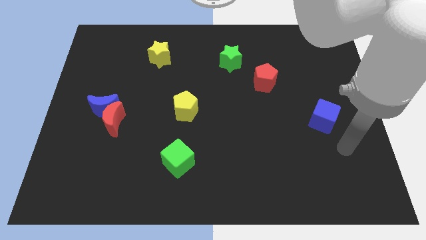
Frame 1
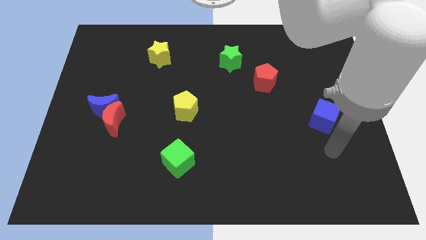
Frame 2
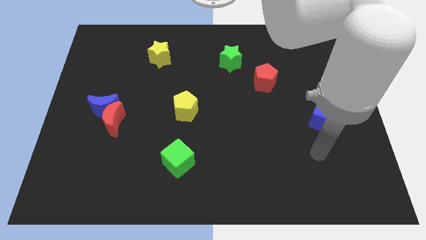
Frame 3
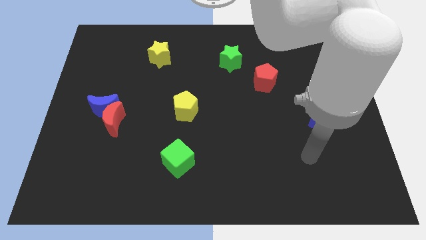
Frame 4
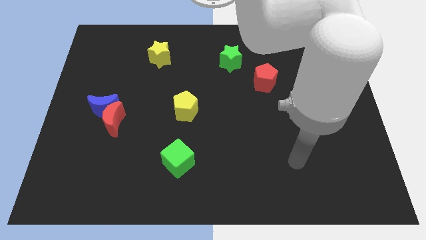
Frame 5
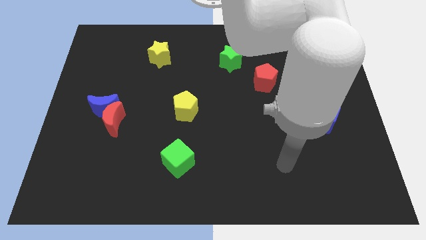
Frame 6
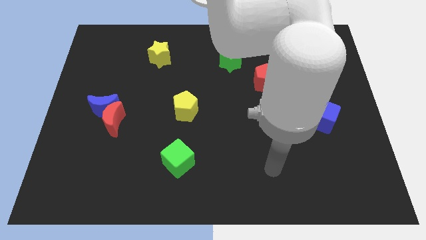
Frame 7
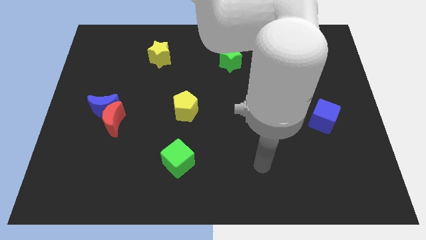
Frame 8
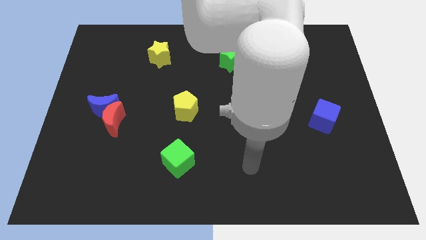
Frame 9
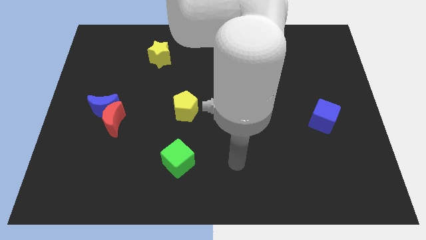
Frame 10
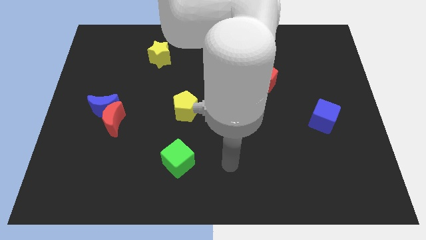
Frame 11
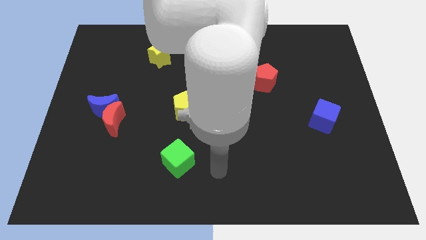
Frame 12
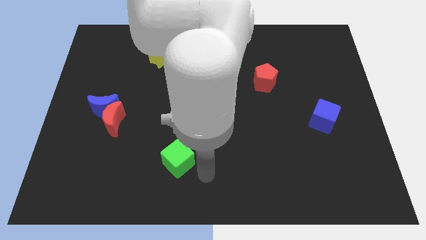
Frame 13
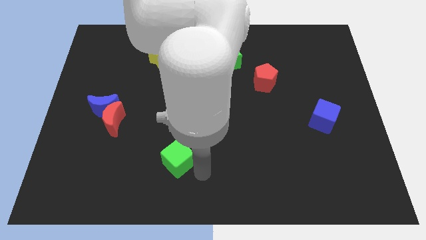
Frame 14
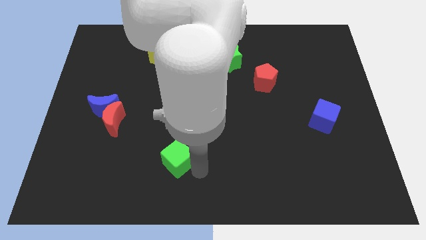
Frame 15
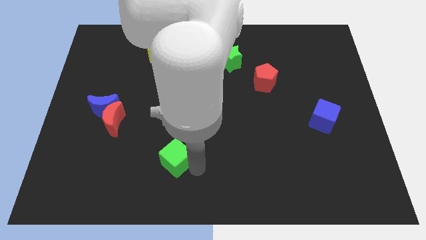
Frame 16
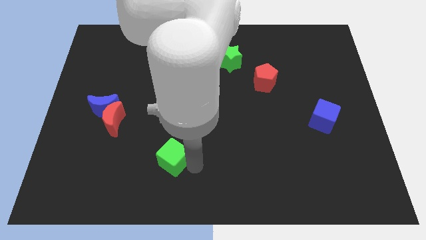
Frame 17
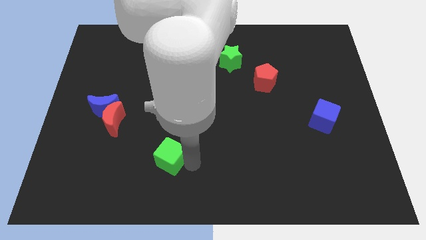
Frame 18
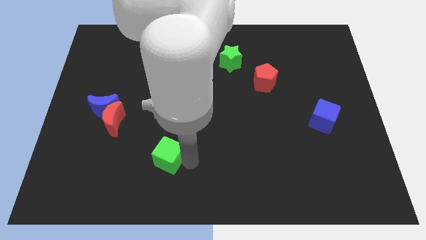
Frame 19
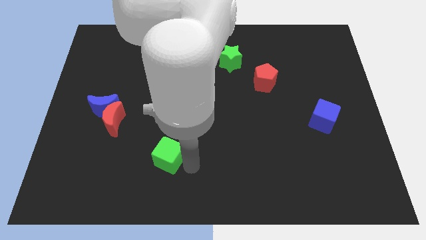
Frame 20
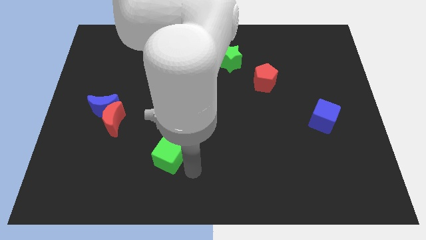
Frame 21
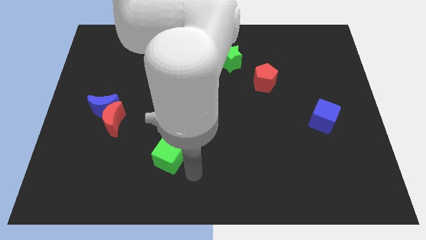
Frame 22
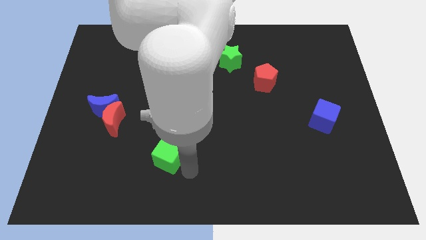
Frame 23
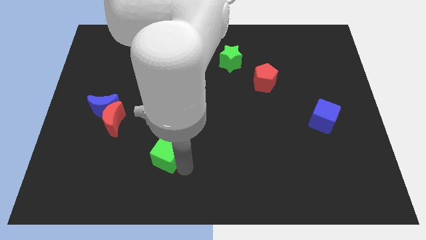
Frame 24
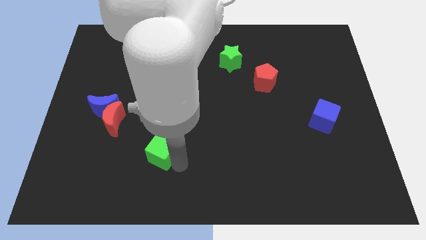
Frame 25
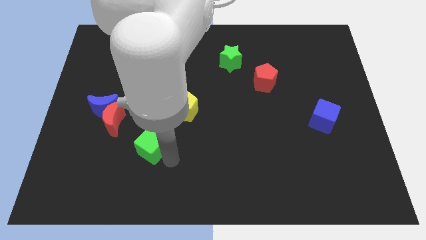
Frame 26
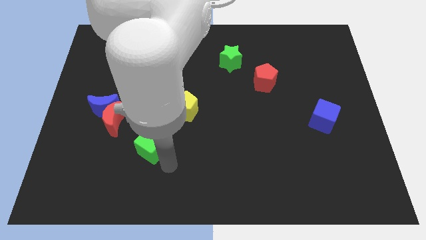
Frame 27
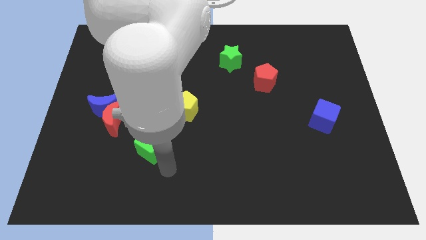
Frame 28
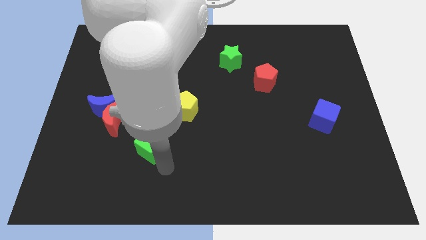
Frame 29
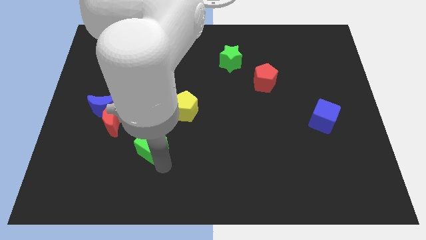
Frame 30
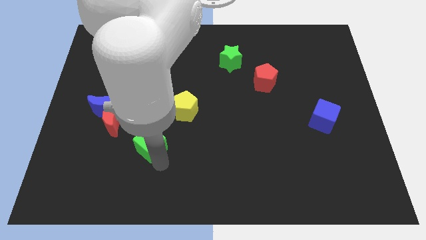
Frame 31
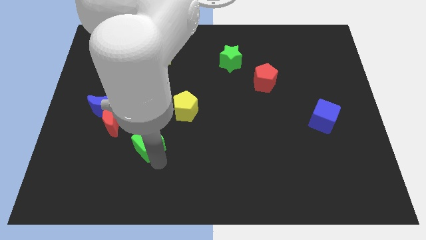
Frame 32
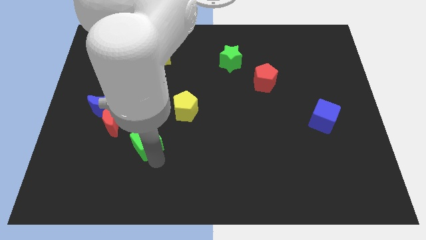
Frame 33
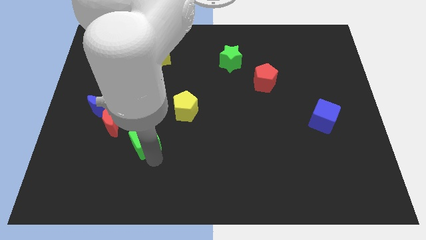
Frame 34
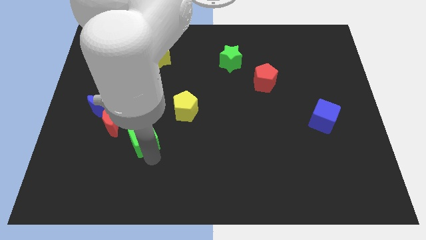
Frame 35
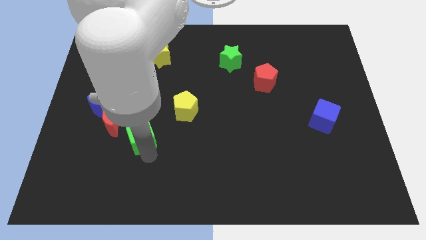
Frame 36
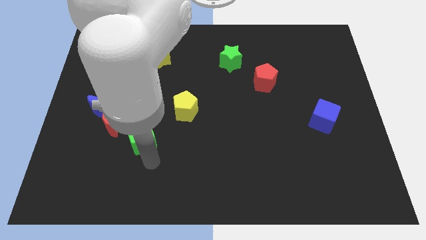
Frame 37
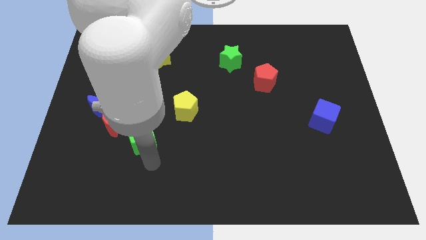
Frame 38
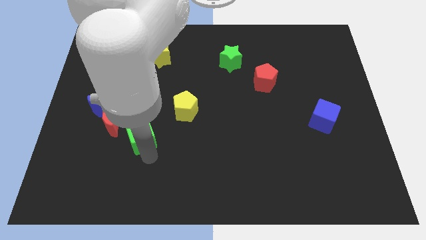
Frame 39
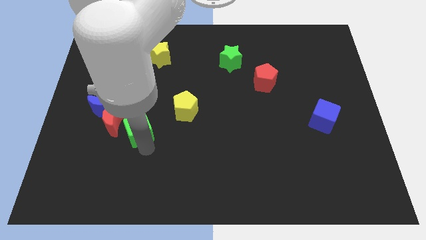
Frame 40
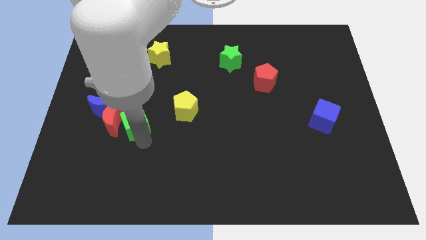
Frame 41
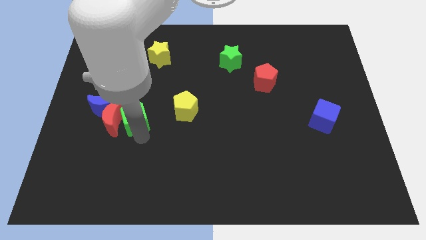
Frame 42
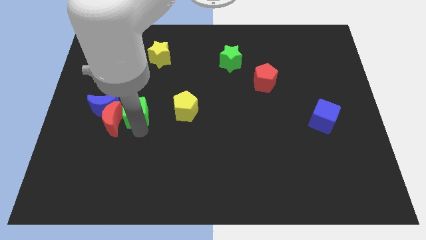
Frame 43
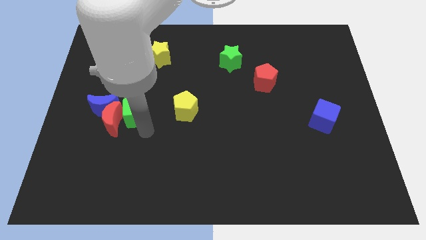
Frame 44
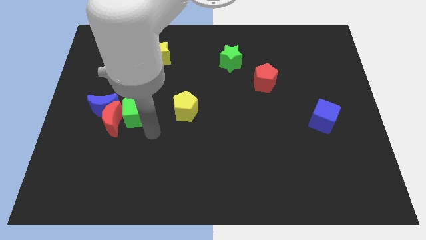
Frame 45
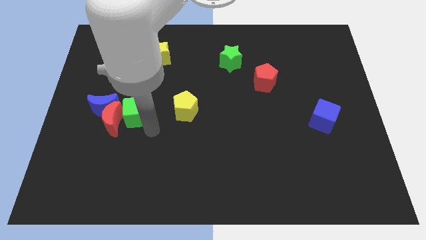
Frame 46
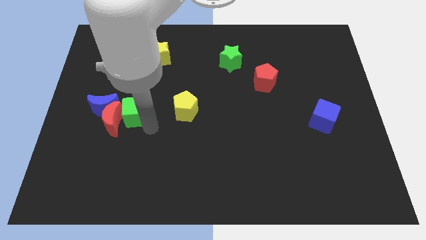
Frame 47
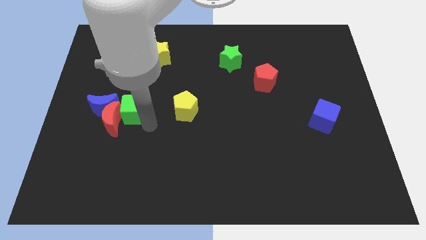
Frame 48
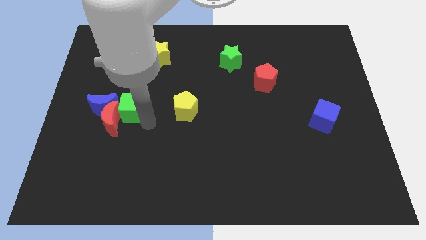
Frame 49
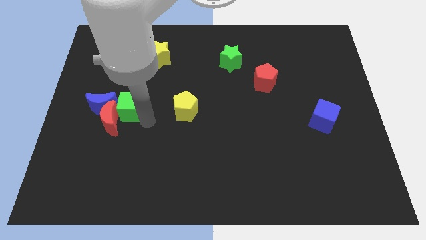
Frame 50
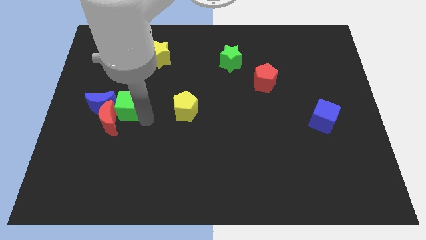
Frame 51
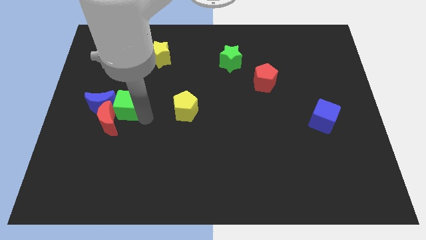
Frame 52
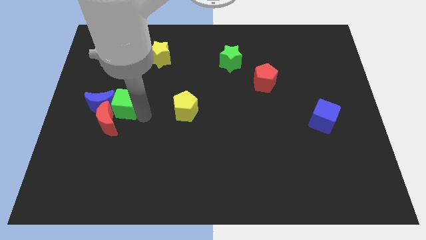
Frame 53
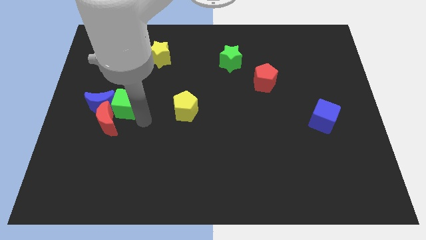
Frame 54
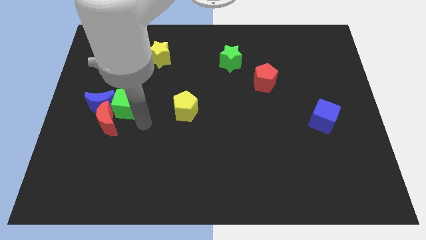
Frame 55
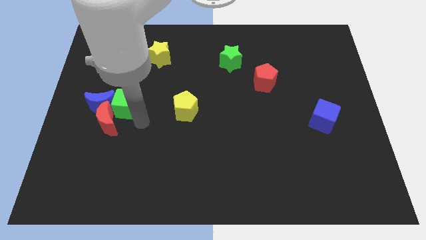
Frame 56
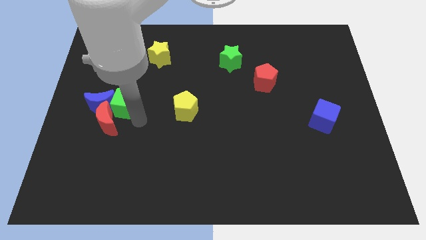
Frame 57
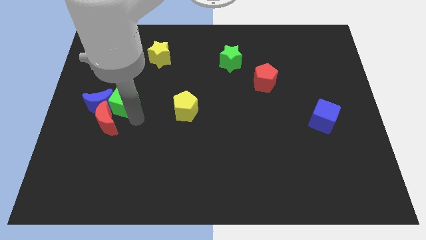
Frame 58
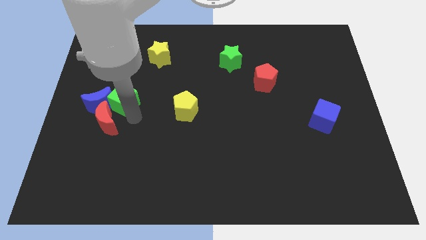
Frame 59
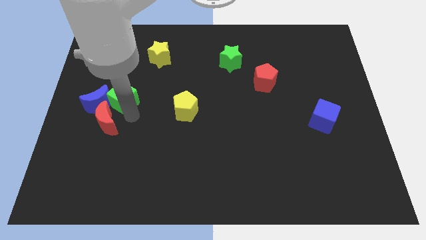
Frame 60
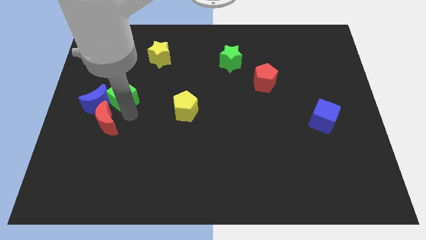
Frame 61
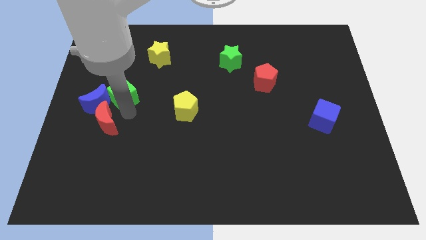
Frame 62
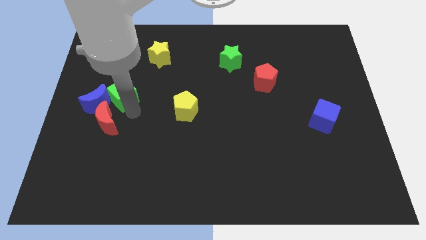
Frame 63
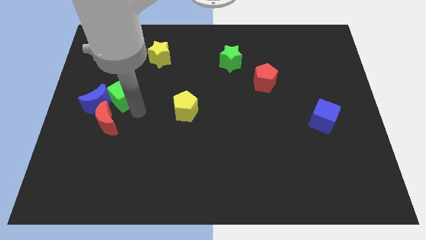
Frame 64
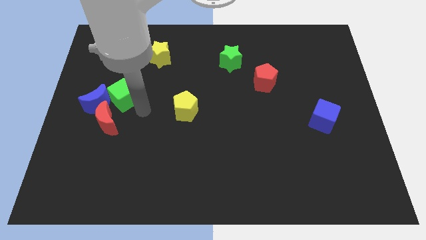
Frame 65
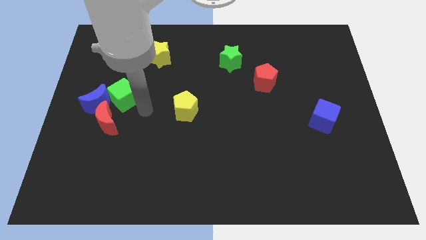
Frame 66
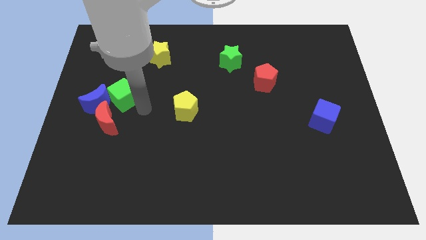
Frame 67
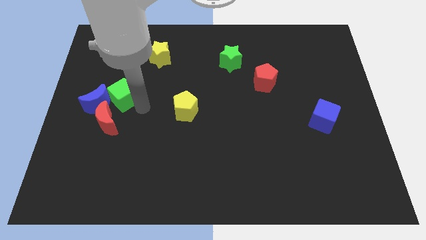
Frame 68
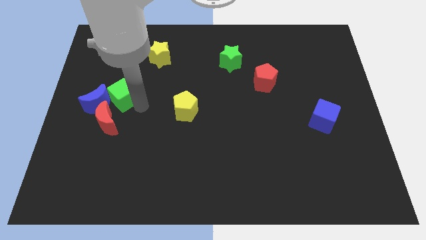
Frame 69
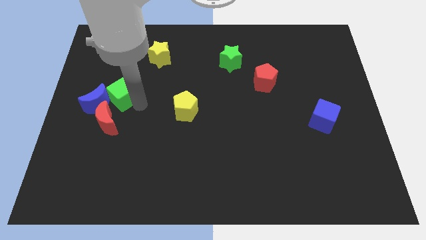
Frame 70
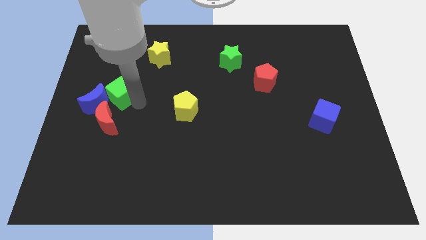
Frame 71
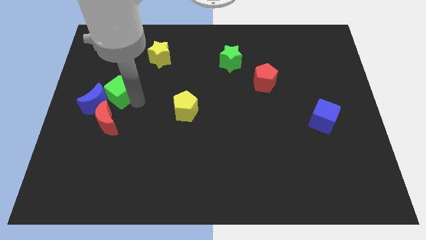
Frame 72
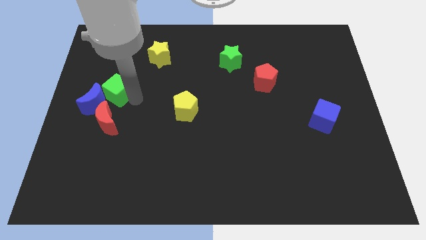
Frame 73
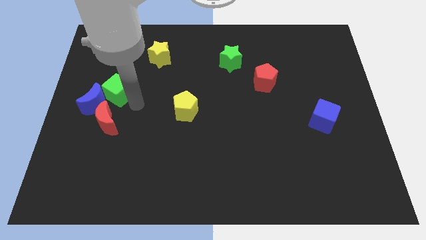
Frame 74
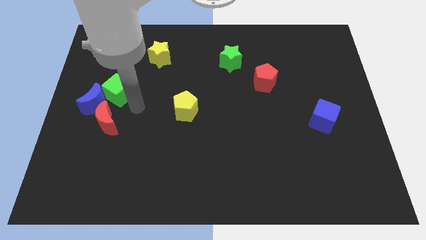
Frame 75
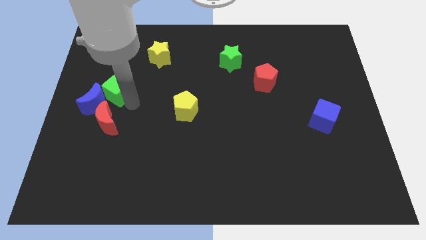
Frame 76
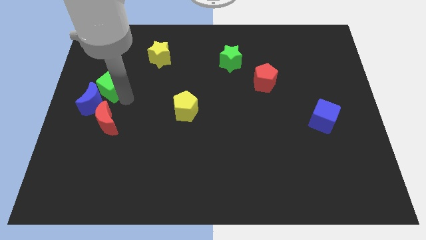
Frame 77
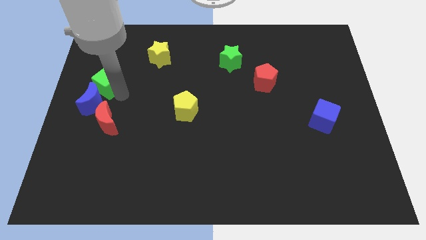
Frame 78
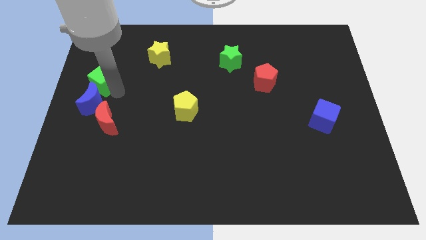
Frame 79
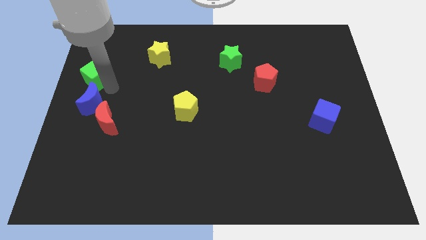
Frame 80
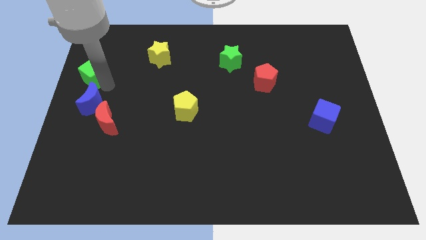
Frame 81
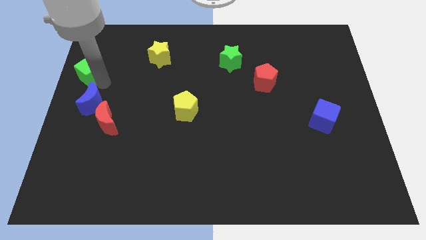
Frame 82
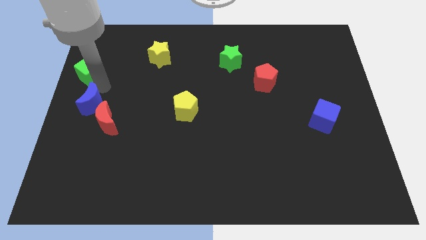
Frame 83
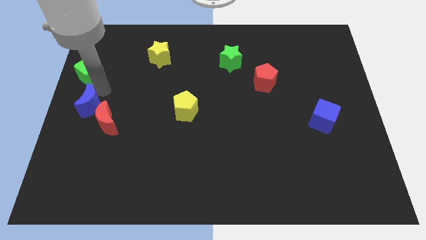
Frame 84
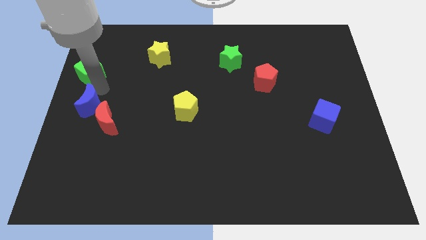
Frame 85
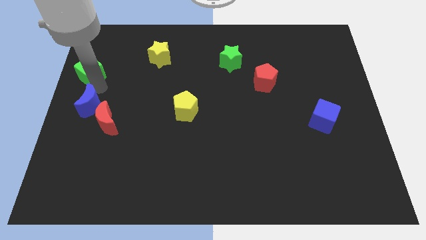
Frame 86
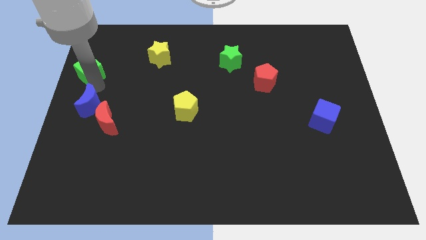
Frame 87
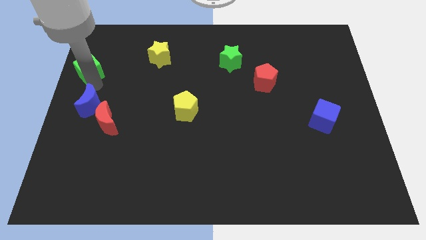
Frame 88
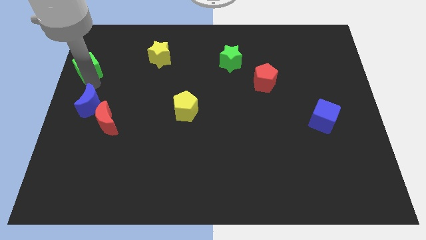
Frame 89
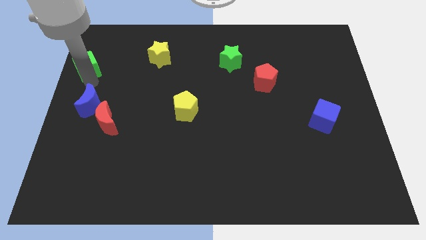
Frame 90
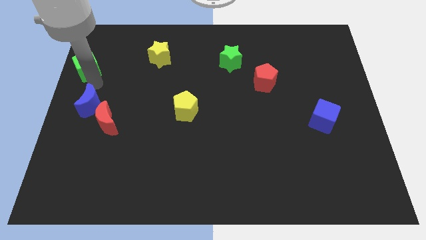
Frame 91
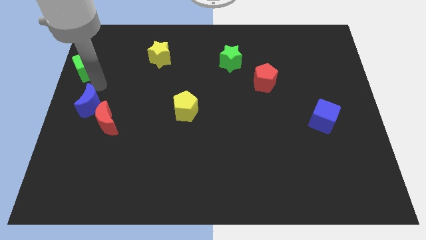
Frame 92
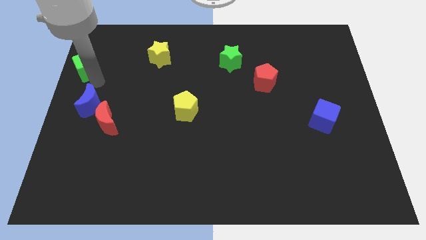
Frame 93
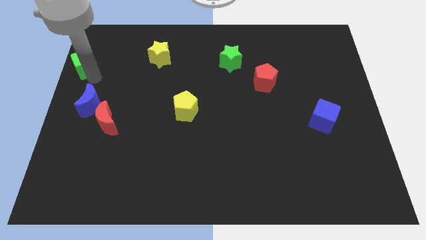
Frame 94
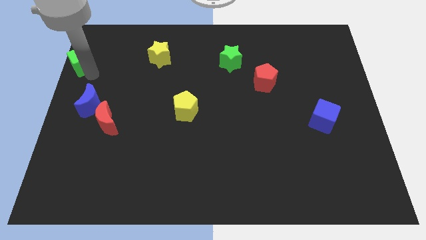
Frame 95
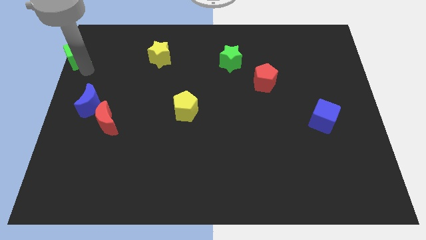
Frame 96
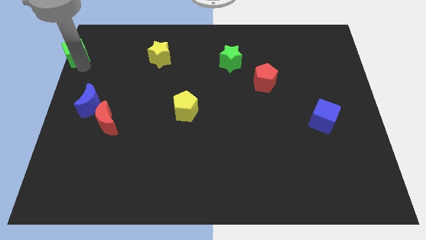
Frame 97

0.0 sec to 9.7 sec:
put the green cube to the top left of the board
